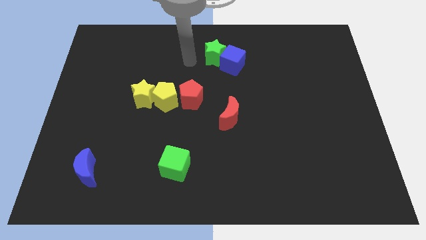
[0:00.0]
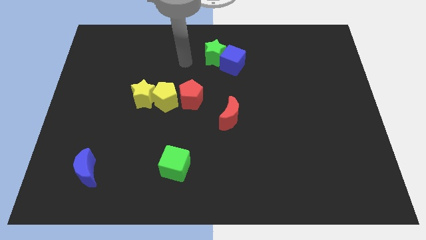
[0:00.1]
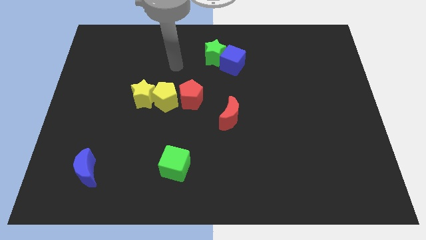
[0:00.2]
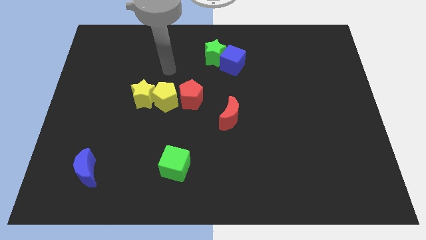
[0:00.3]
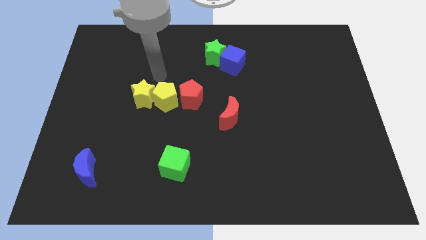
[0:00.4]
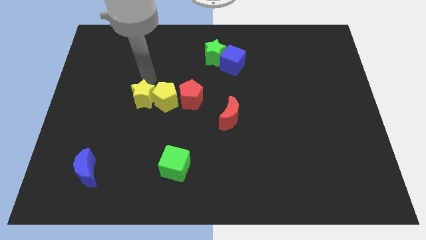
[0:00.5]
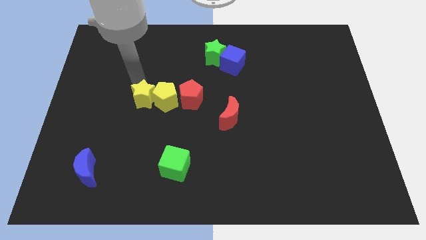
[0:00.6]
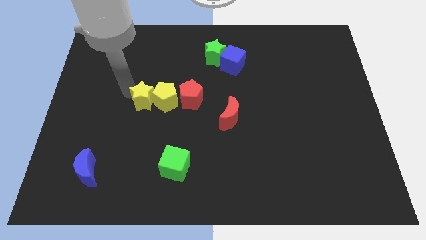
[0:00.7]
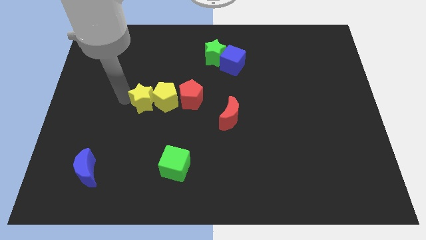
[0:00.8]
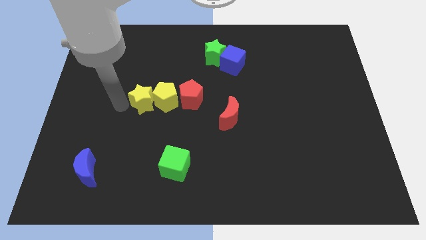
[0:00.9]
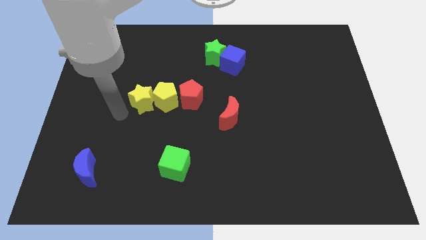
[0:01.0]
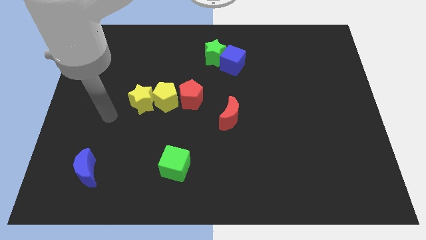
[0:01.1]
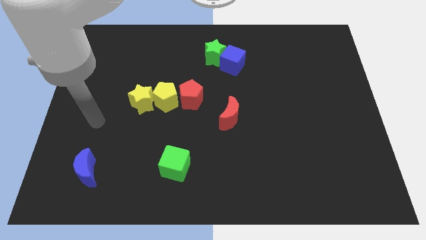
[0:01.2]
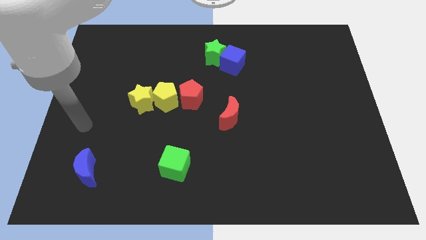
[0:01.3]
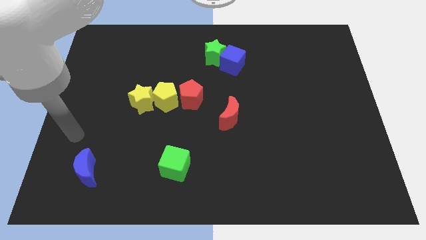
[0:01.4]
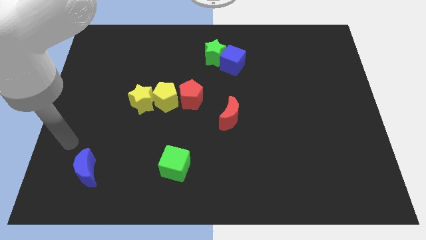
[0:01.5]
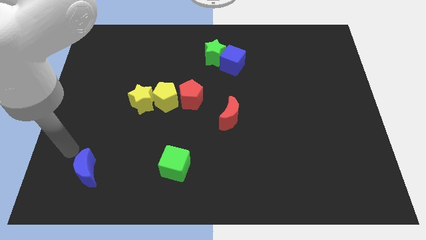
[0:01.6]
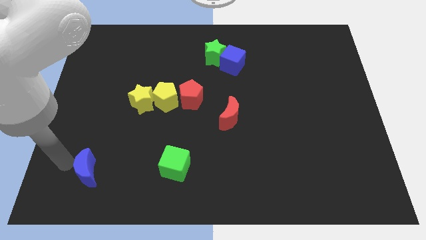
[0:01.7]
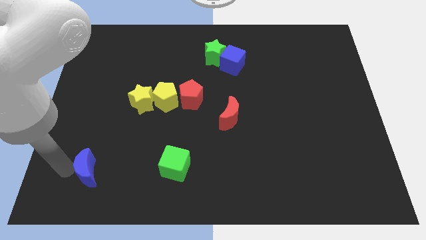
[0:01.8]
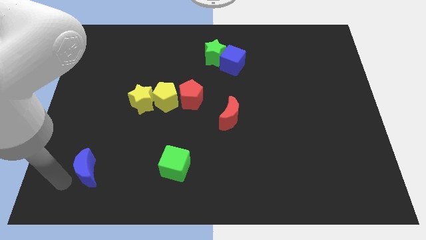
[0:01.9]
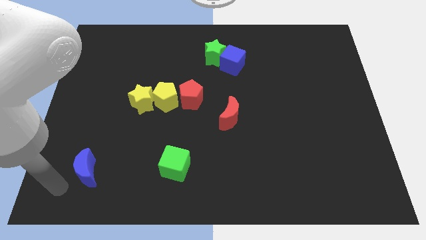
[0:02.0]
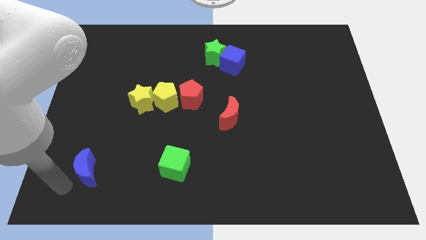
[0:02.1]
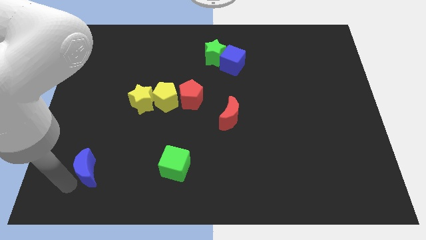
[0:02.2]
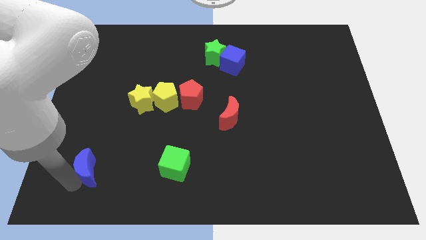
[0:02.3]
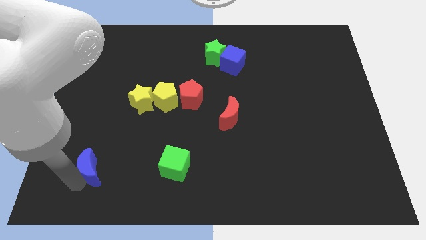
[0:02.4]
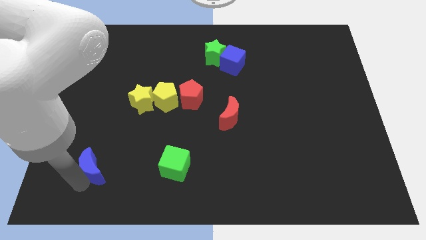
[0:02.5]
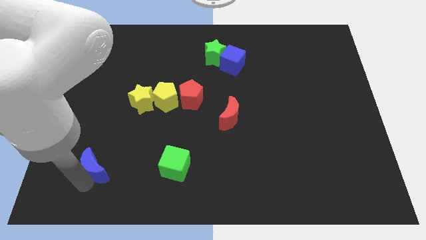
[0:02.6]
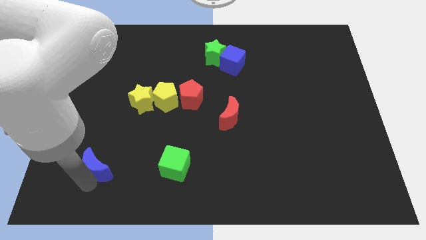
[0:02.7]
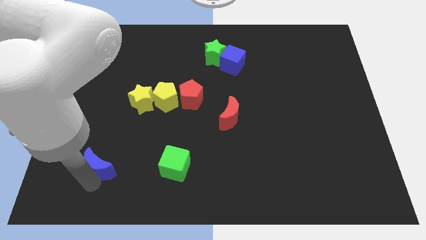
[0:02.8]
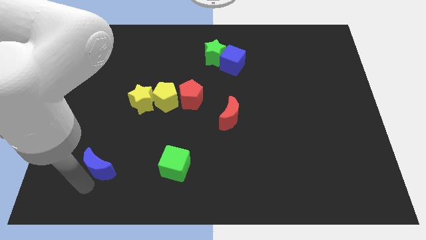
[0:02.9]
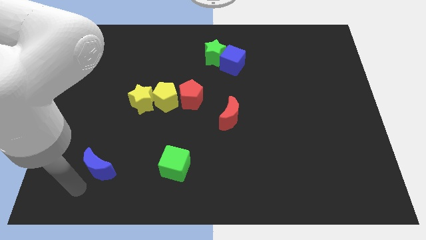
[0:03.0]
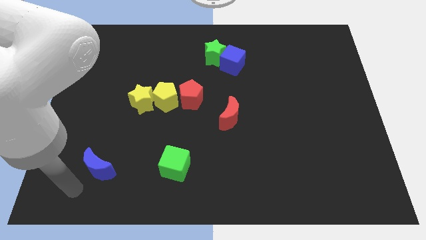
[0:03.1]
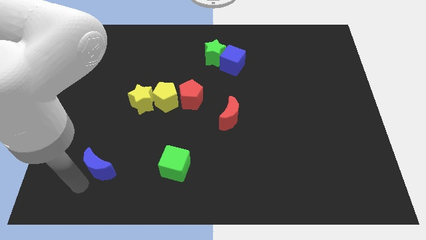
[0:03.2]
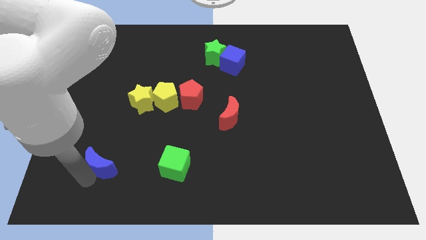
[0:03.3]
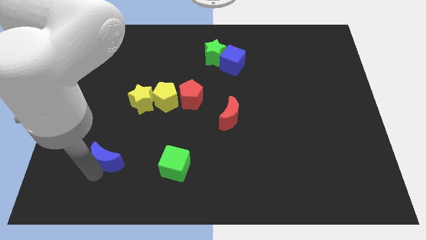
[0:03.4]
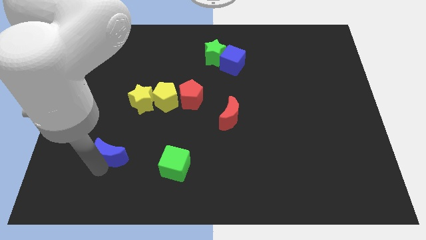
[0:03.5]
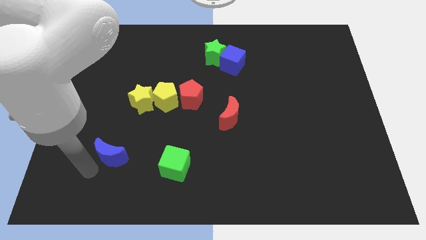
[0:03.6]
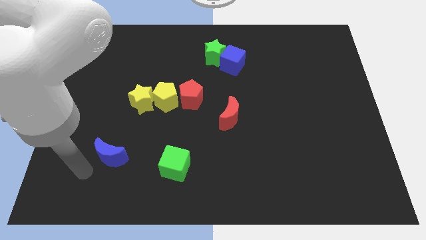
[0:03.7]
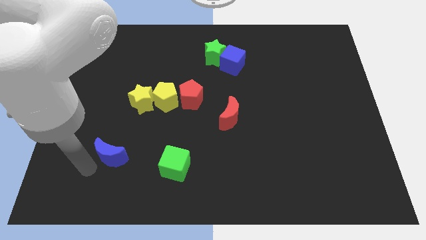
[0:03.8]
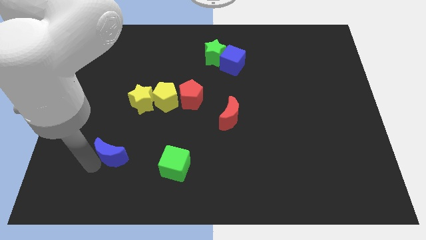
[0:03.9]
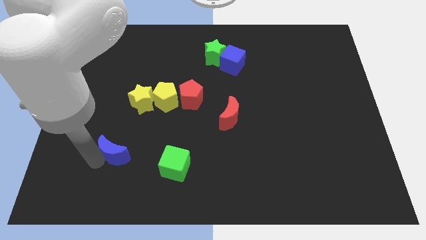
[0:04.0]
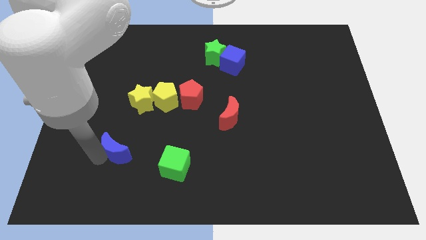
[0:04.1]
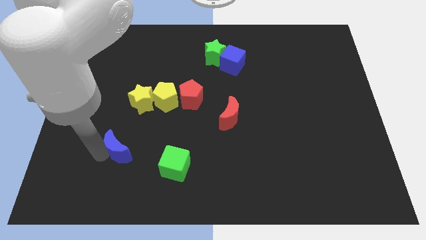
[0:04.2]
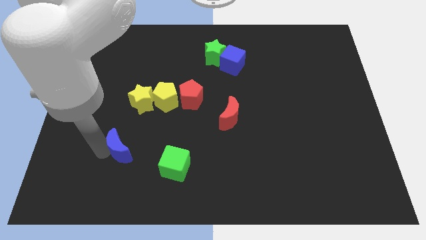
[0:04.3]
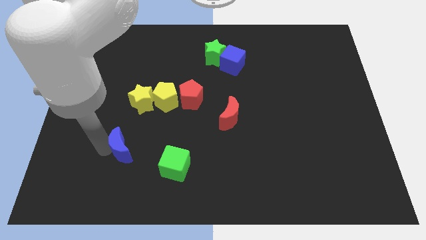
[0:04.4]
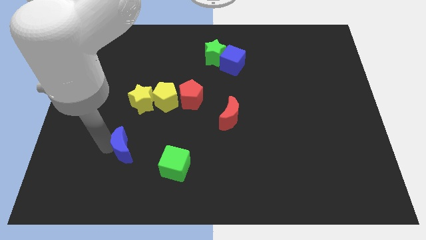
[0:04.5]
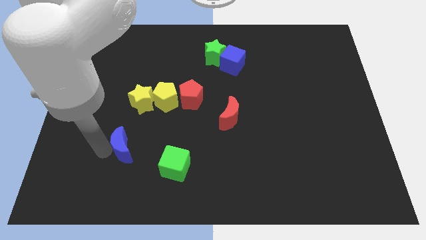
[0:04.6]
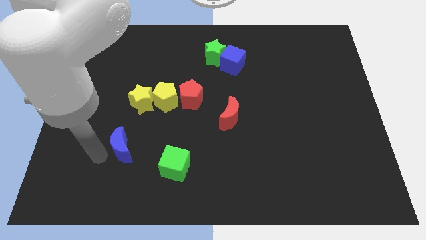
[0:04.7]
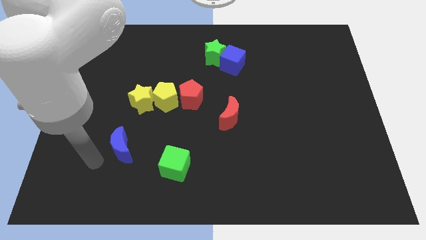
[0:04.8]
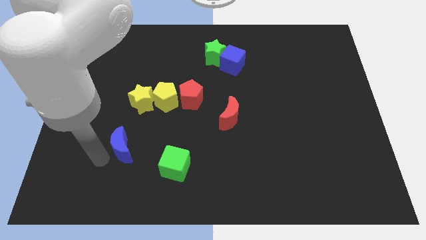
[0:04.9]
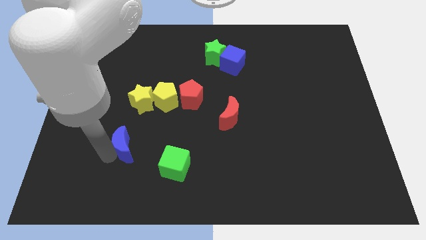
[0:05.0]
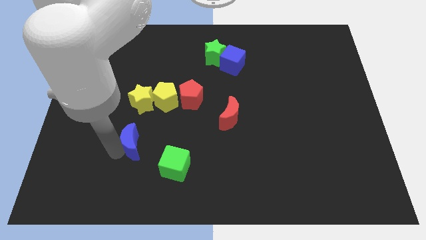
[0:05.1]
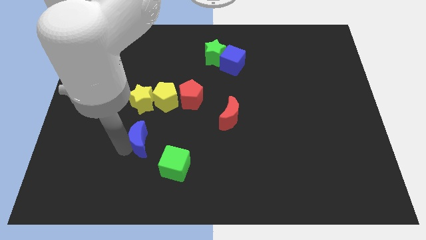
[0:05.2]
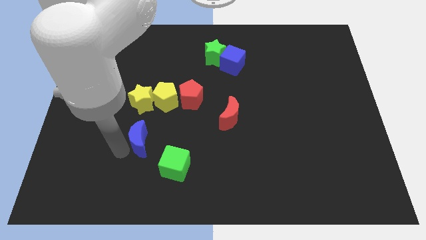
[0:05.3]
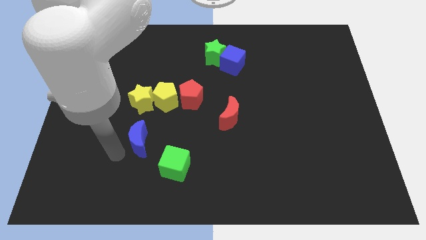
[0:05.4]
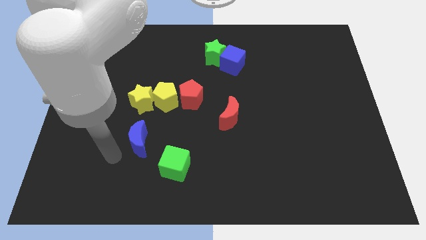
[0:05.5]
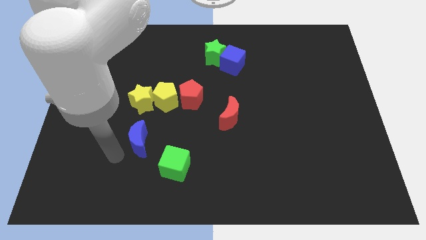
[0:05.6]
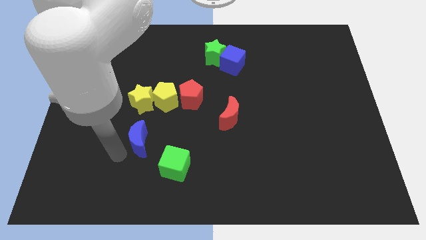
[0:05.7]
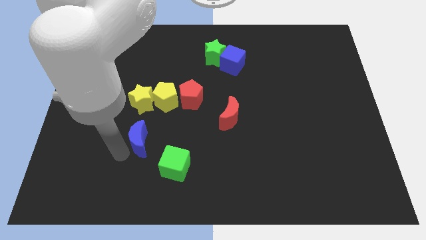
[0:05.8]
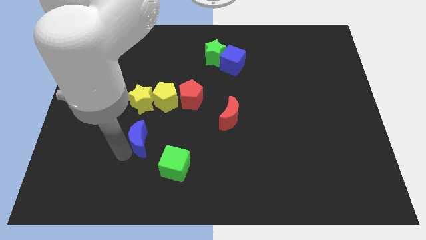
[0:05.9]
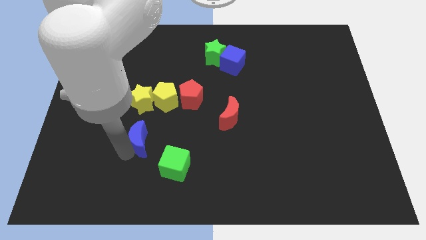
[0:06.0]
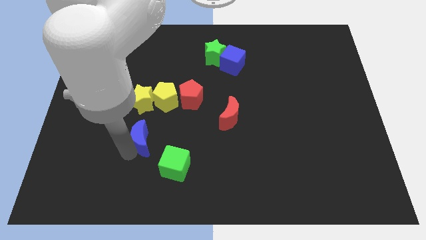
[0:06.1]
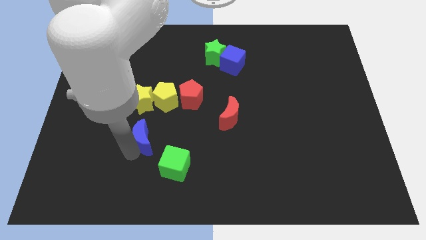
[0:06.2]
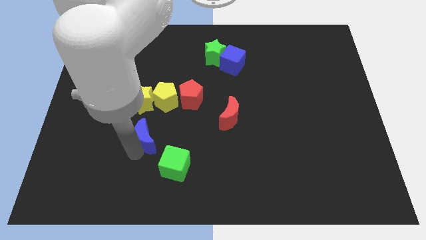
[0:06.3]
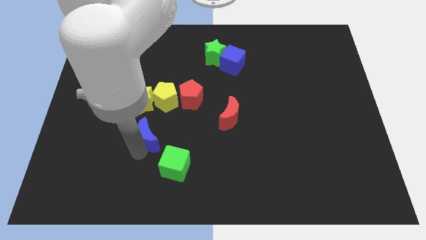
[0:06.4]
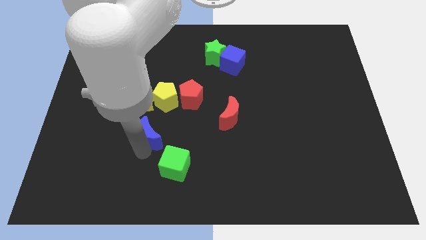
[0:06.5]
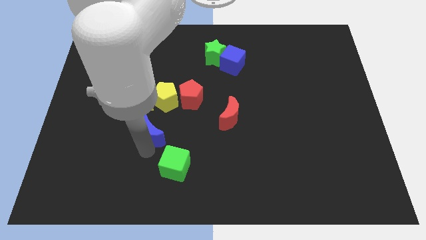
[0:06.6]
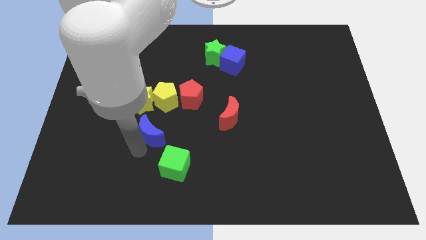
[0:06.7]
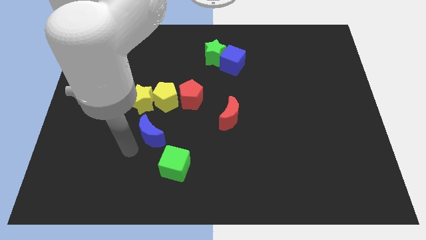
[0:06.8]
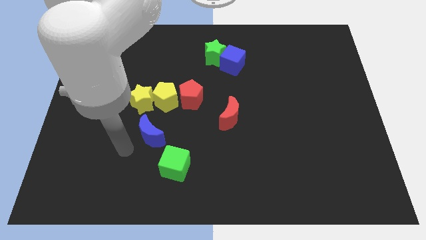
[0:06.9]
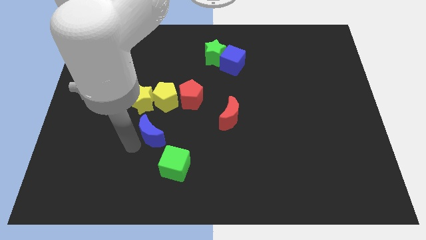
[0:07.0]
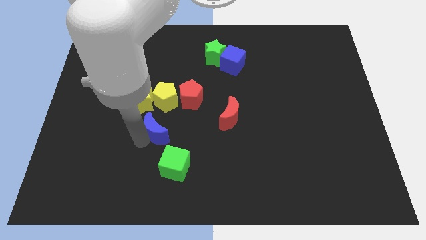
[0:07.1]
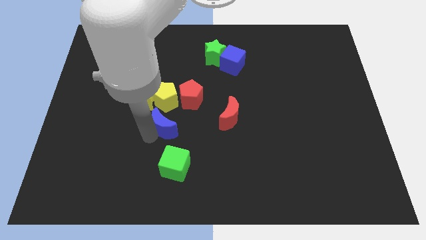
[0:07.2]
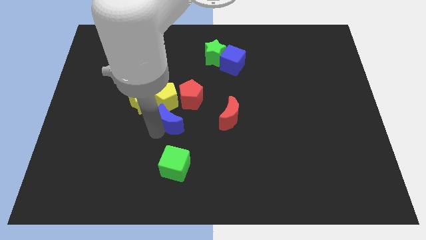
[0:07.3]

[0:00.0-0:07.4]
push the blue moon diagonally down and to the right of the yellow pentagon

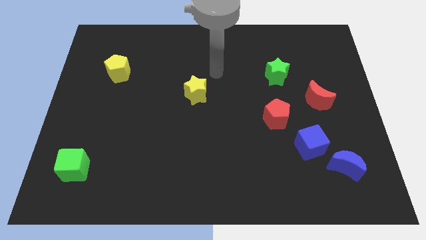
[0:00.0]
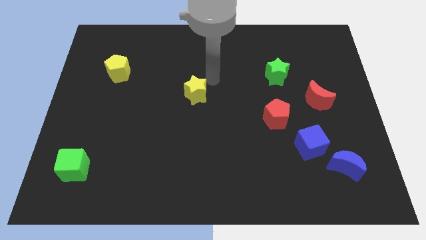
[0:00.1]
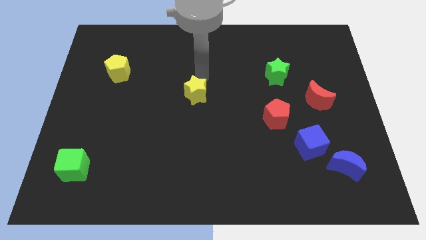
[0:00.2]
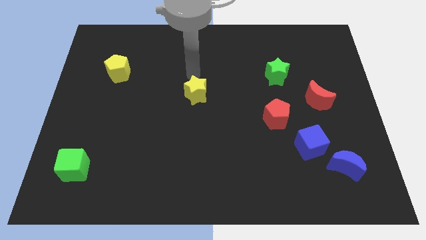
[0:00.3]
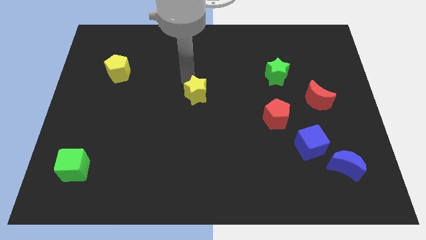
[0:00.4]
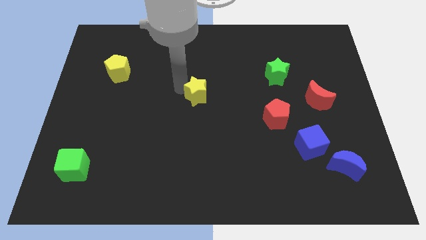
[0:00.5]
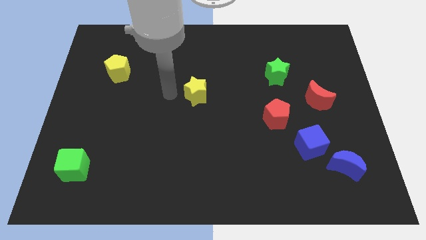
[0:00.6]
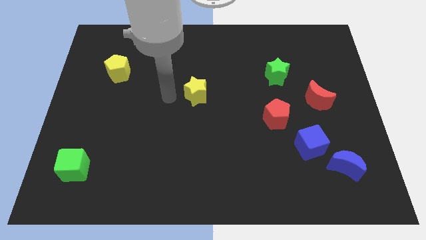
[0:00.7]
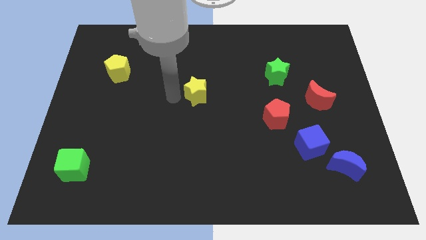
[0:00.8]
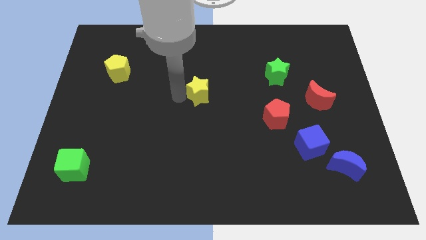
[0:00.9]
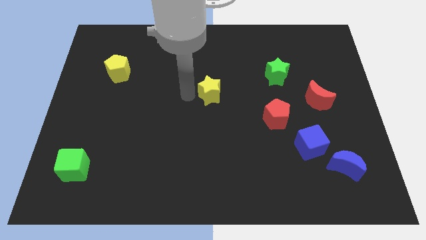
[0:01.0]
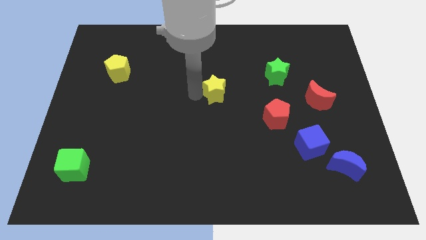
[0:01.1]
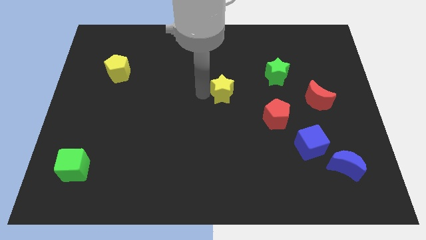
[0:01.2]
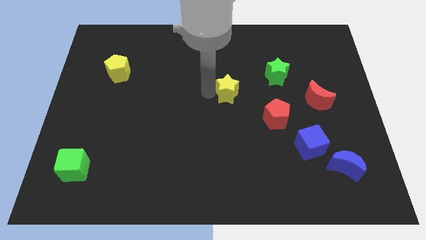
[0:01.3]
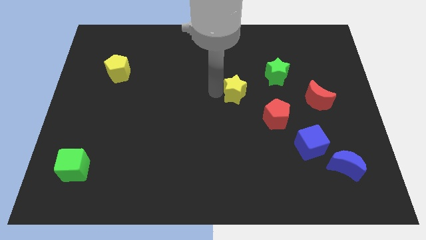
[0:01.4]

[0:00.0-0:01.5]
move the yellow star to the top left of the red pentagon
